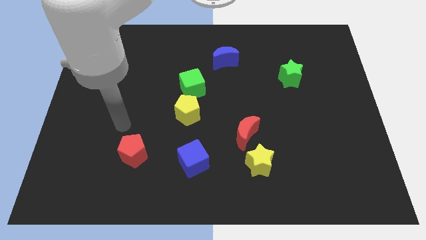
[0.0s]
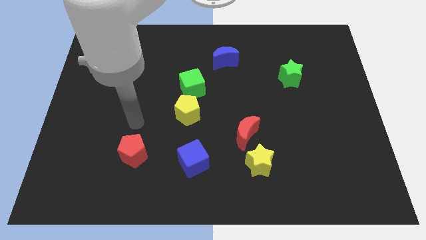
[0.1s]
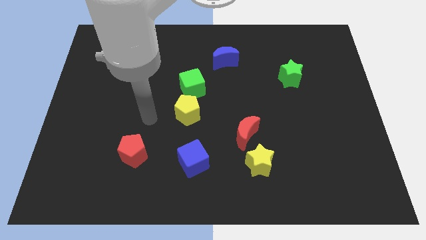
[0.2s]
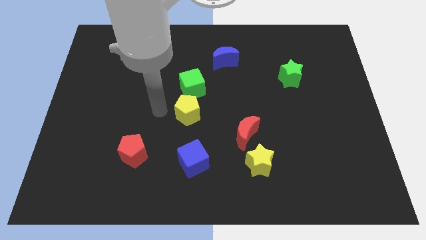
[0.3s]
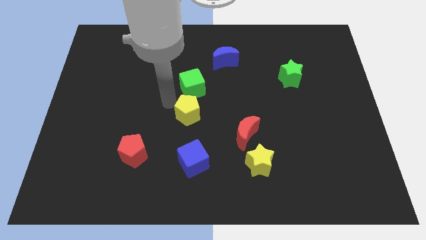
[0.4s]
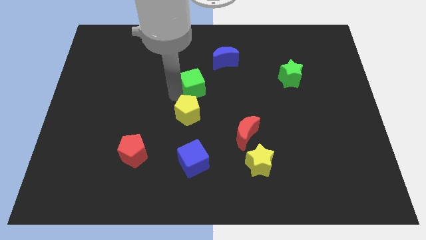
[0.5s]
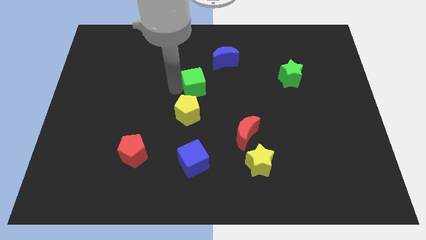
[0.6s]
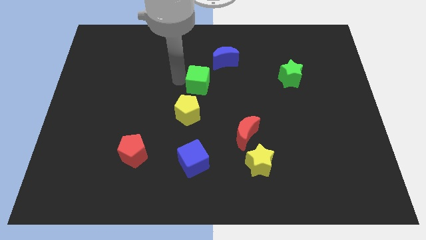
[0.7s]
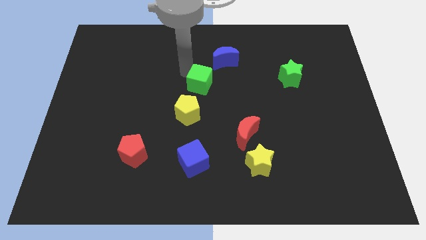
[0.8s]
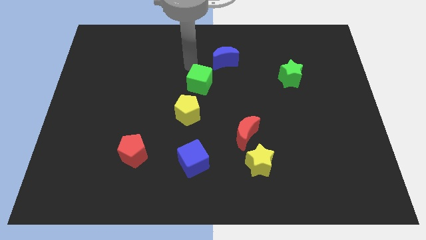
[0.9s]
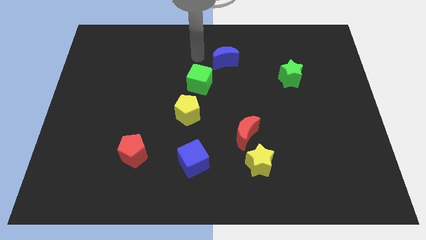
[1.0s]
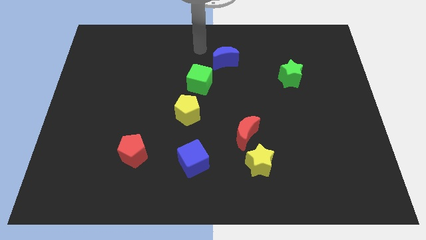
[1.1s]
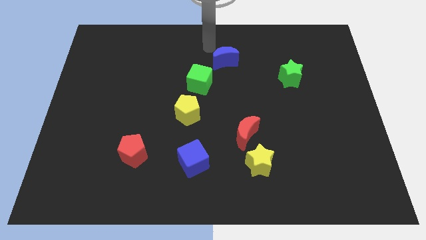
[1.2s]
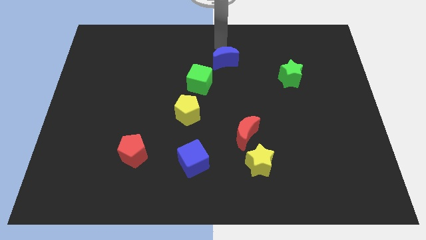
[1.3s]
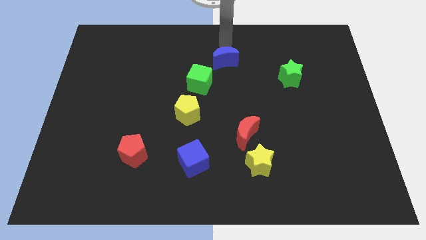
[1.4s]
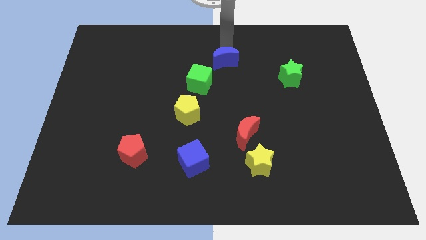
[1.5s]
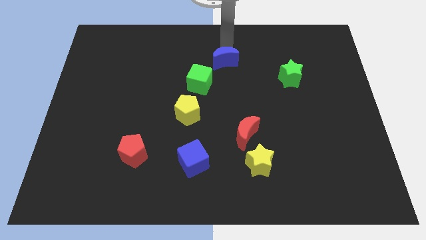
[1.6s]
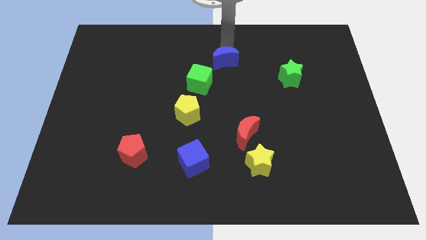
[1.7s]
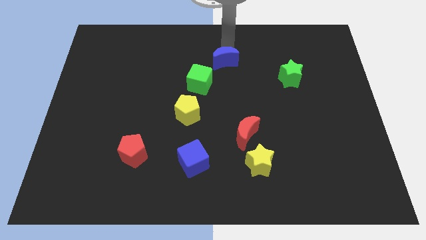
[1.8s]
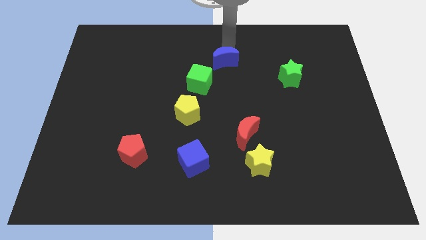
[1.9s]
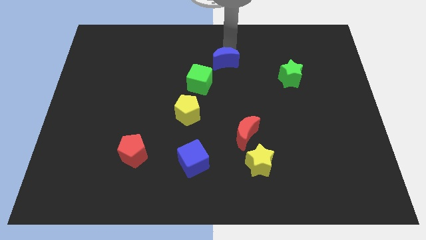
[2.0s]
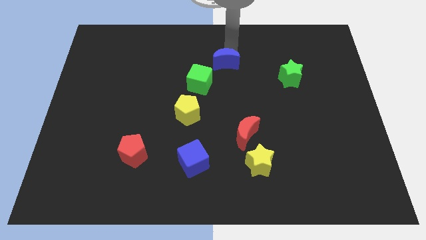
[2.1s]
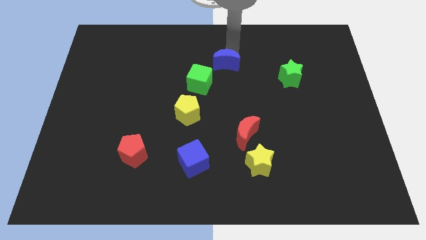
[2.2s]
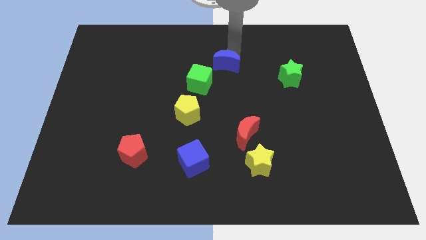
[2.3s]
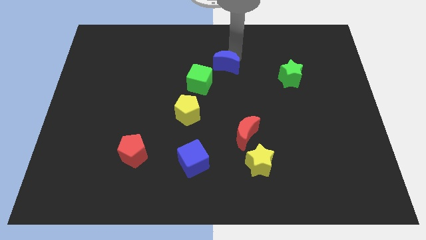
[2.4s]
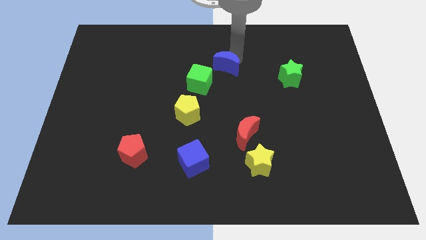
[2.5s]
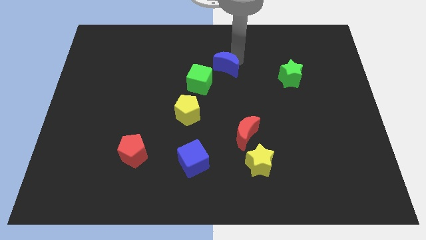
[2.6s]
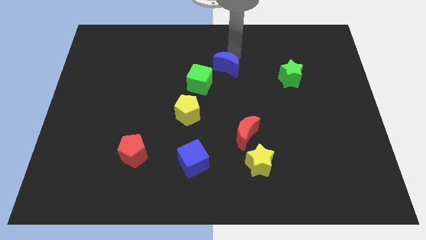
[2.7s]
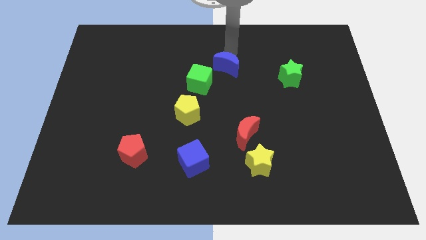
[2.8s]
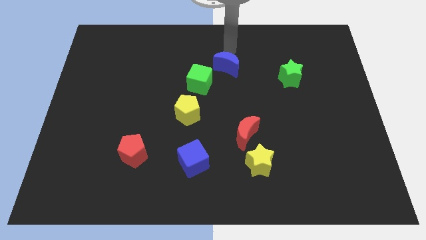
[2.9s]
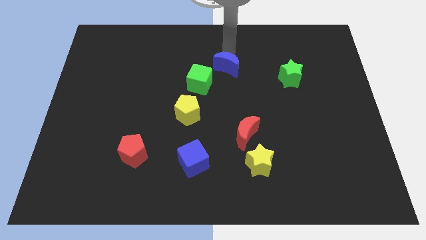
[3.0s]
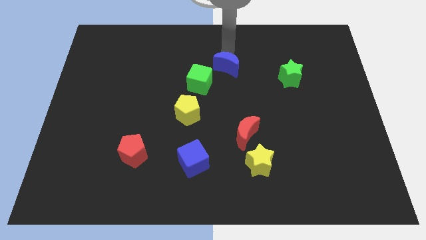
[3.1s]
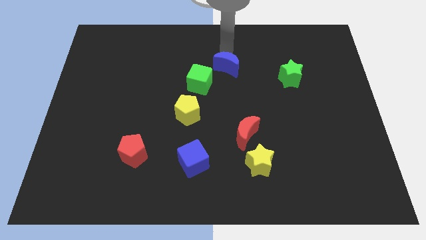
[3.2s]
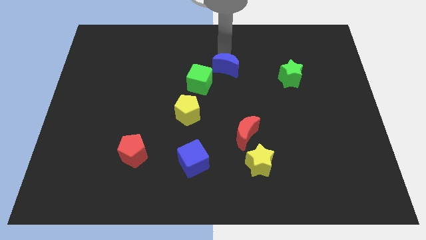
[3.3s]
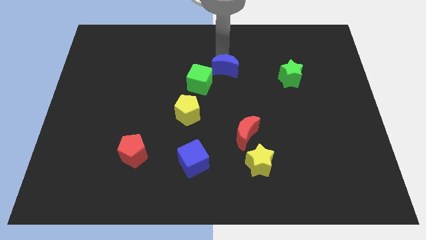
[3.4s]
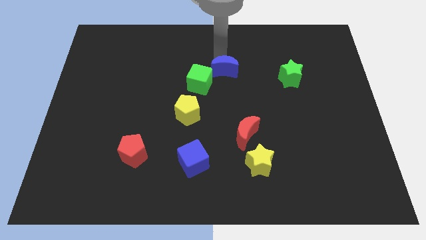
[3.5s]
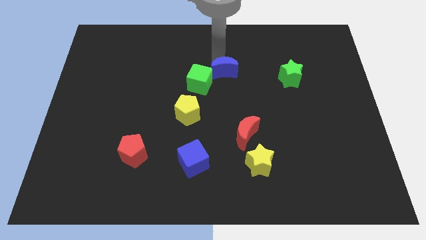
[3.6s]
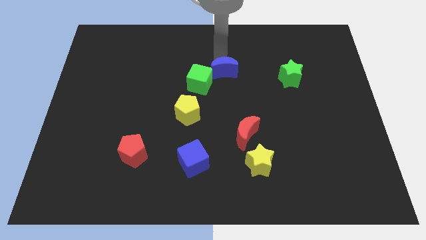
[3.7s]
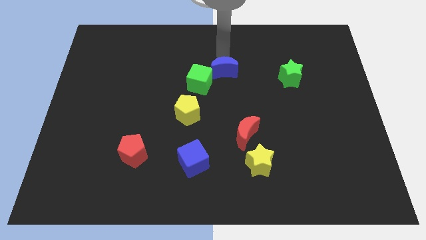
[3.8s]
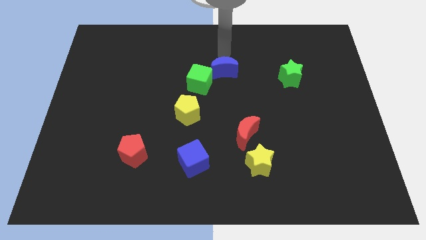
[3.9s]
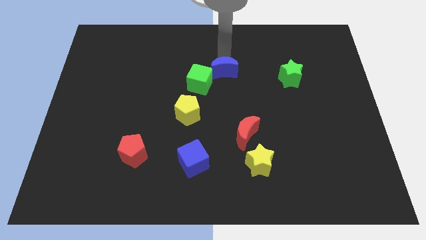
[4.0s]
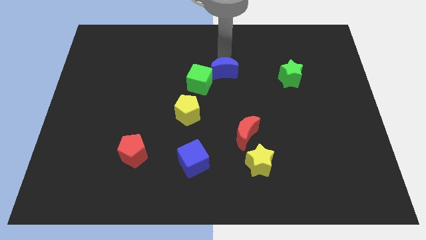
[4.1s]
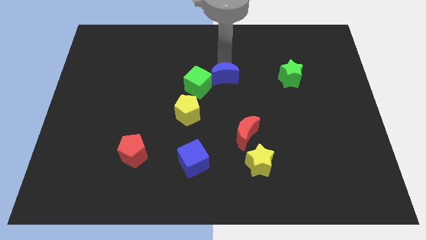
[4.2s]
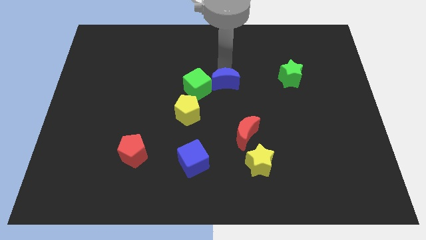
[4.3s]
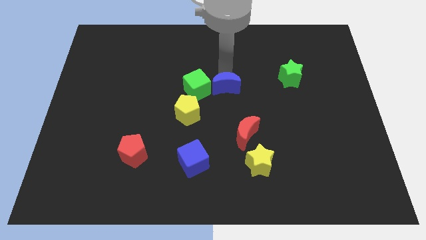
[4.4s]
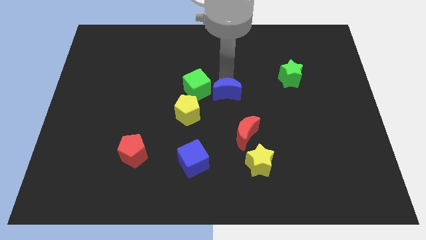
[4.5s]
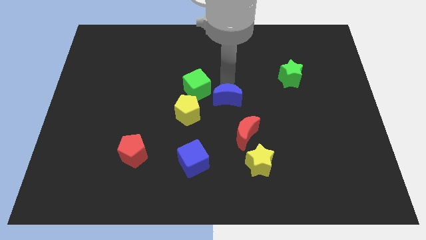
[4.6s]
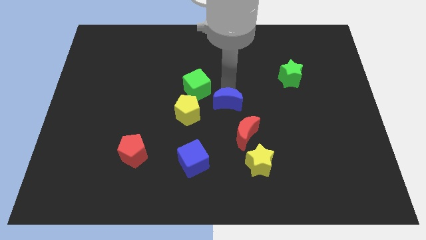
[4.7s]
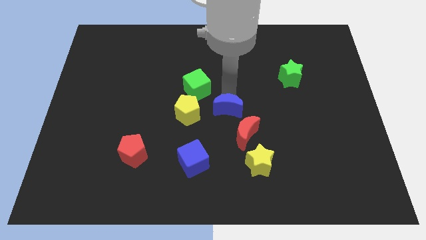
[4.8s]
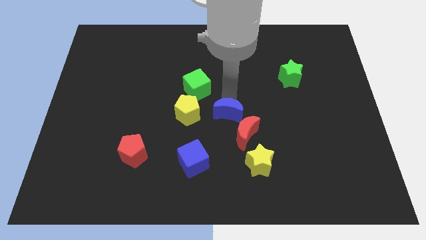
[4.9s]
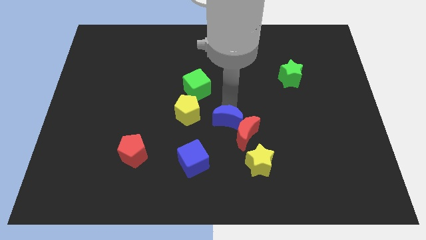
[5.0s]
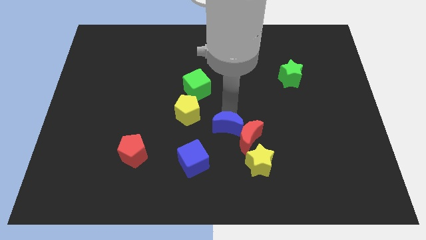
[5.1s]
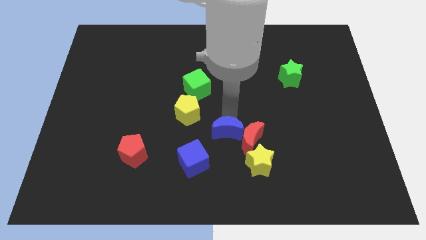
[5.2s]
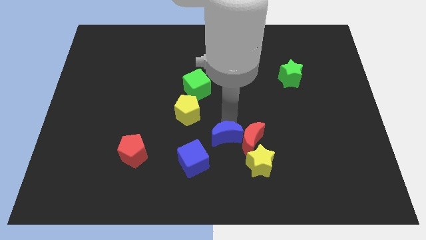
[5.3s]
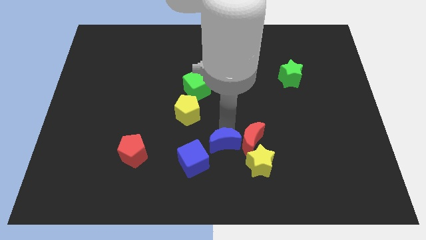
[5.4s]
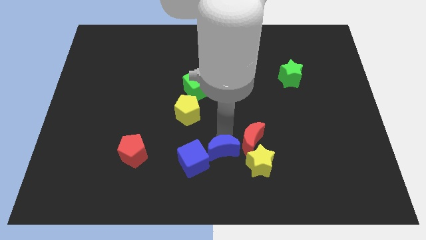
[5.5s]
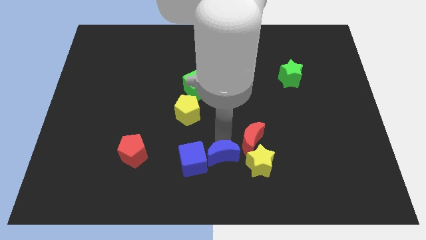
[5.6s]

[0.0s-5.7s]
put the blue moon to the bottom side
